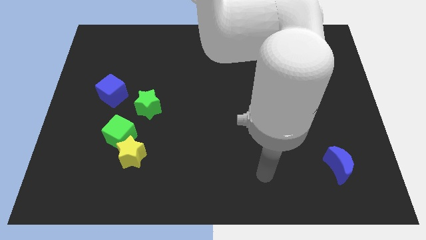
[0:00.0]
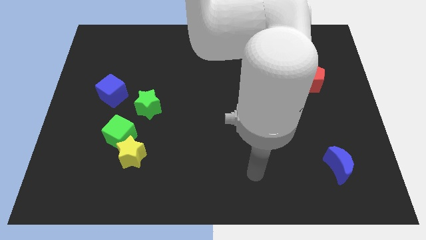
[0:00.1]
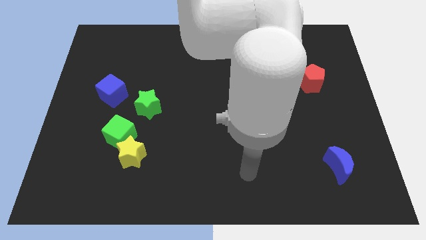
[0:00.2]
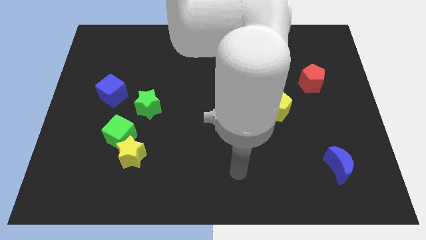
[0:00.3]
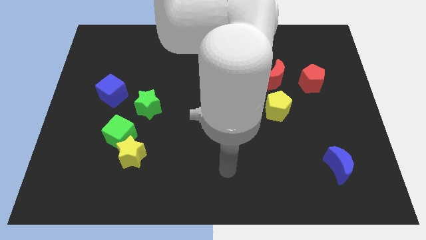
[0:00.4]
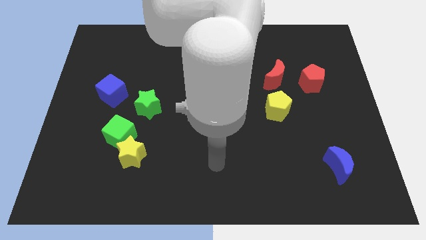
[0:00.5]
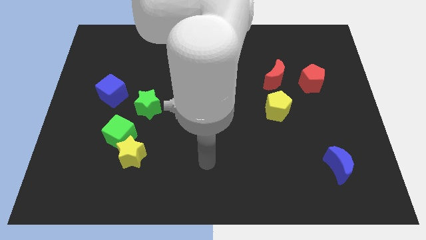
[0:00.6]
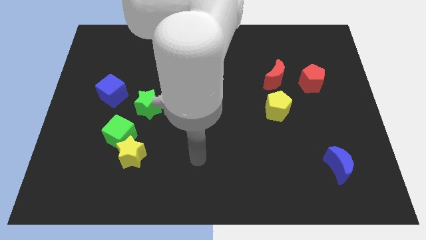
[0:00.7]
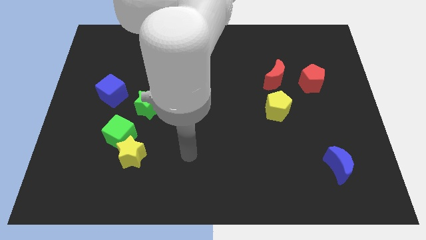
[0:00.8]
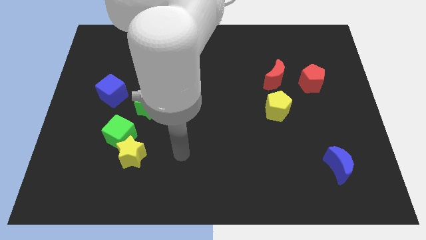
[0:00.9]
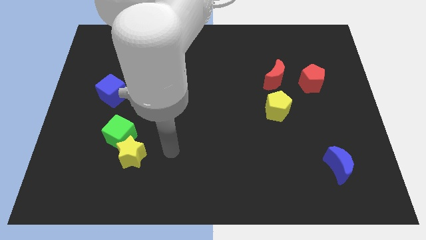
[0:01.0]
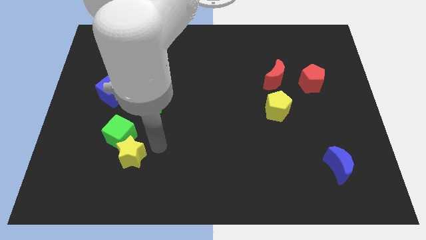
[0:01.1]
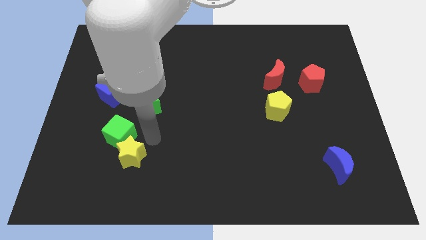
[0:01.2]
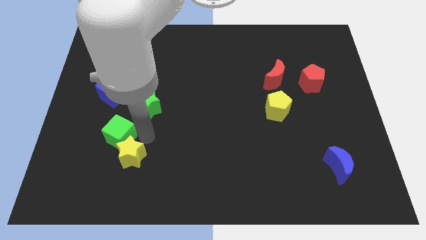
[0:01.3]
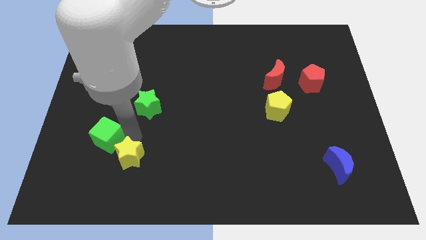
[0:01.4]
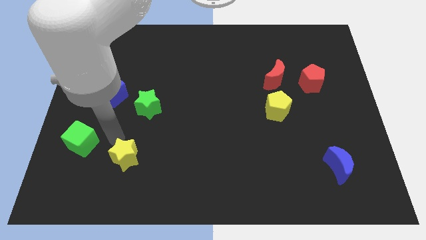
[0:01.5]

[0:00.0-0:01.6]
separate the yellow star from the green cube

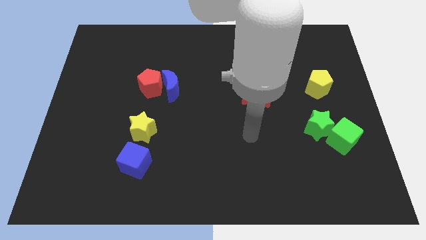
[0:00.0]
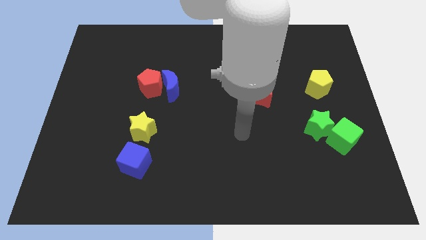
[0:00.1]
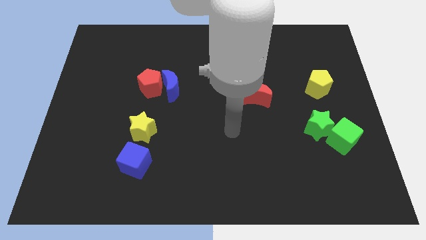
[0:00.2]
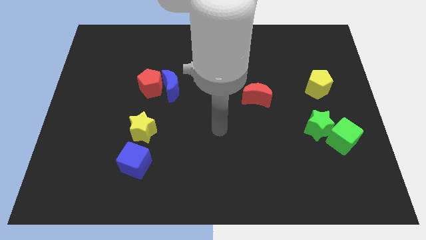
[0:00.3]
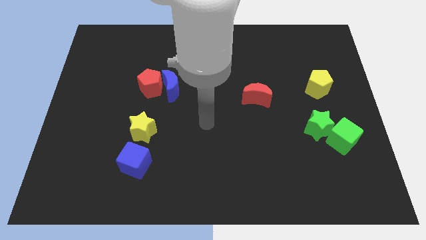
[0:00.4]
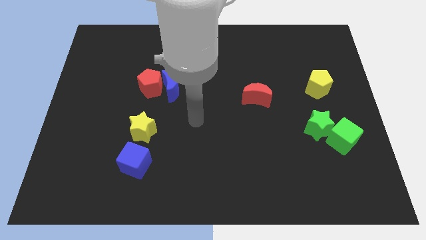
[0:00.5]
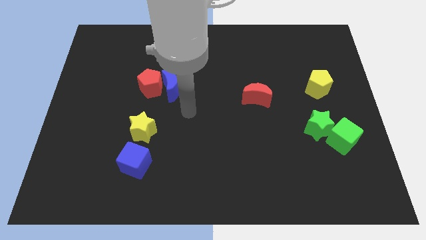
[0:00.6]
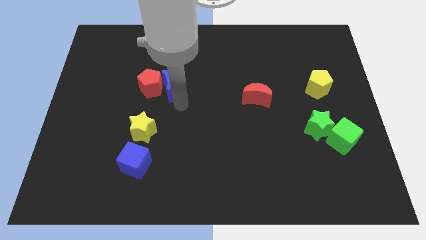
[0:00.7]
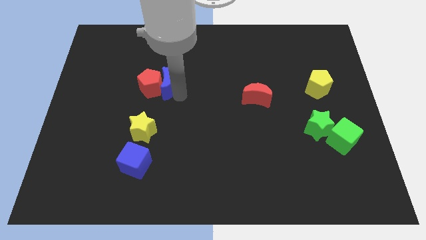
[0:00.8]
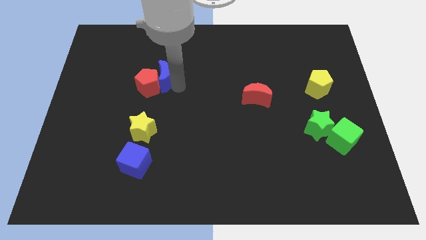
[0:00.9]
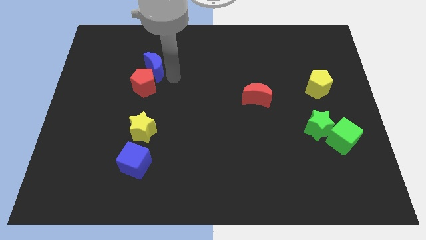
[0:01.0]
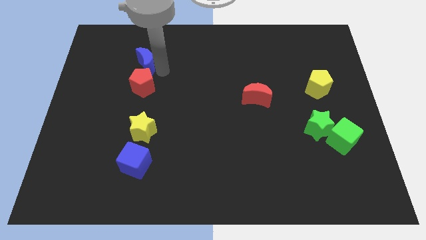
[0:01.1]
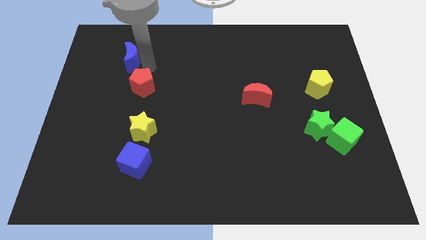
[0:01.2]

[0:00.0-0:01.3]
separate the red pentagon from the blue moon

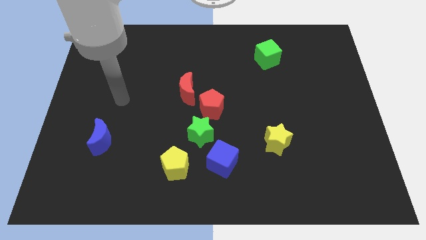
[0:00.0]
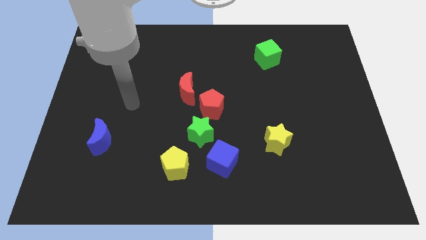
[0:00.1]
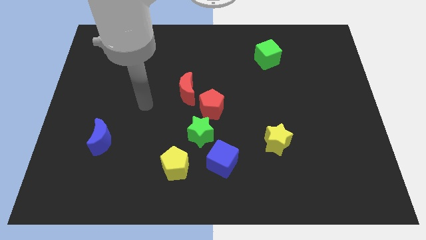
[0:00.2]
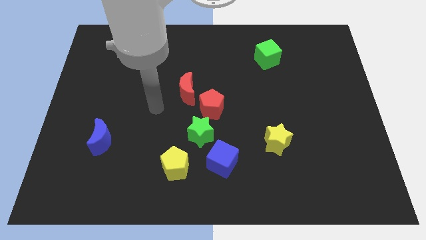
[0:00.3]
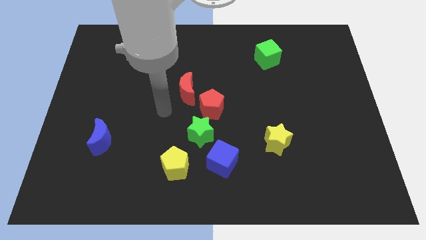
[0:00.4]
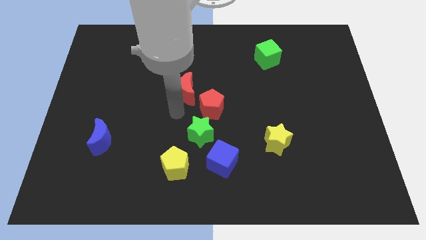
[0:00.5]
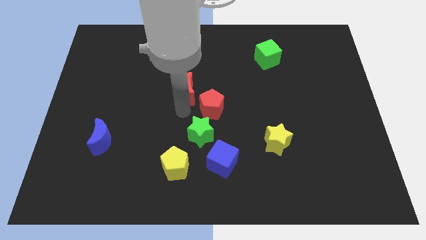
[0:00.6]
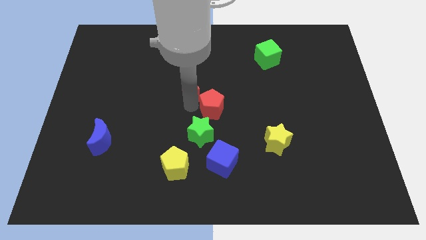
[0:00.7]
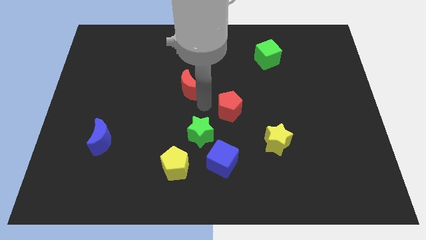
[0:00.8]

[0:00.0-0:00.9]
separate the red moon from the red pentagon

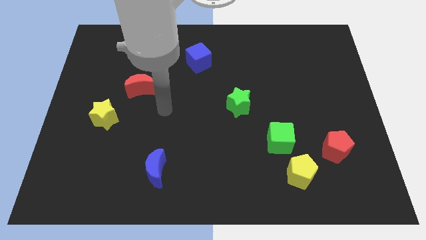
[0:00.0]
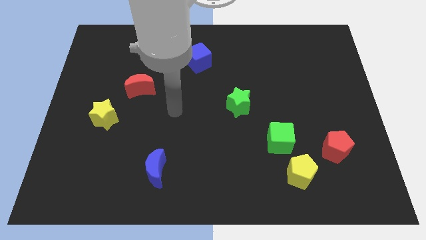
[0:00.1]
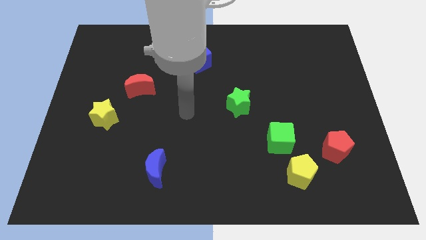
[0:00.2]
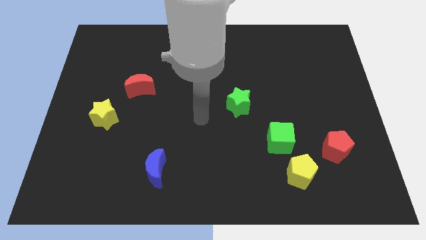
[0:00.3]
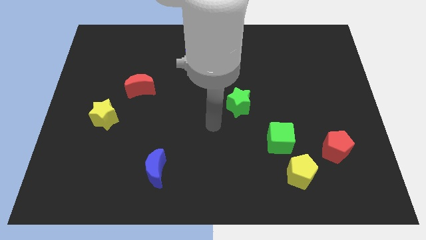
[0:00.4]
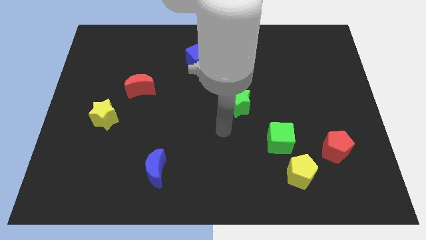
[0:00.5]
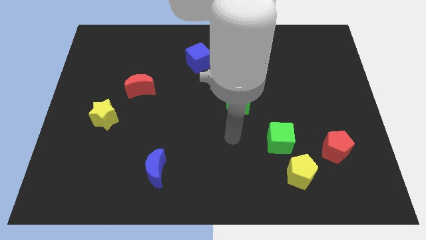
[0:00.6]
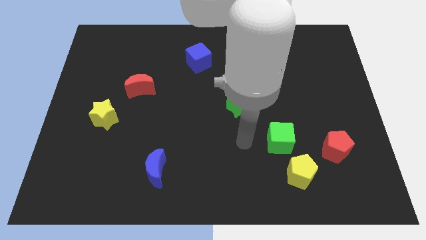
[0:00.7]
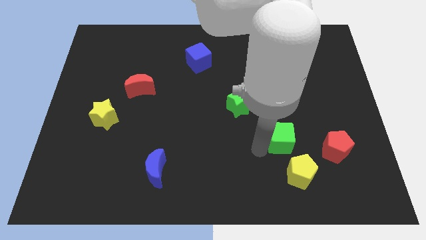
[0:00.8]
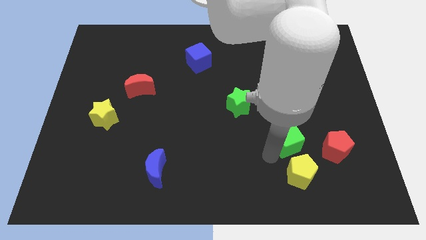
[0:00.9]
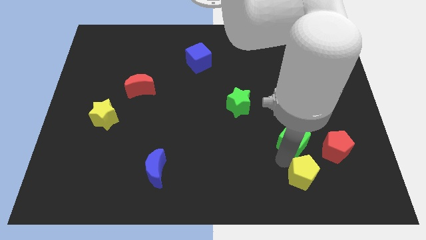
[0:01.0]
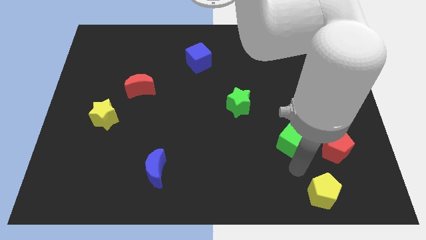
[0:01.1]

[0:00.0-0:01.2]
pull the green cube apart from the yellow pentagon

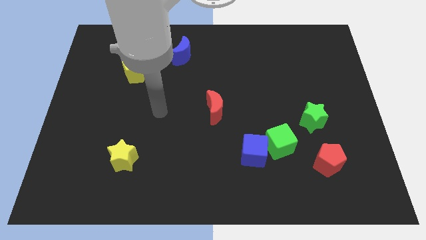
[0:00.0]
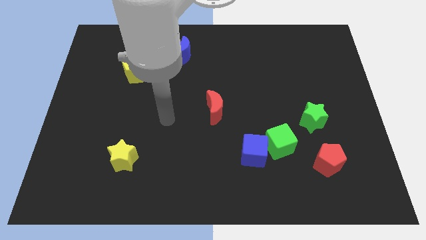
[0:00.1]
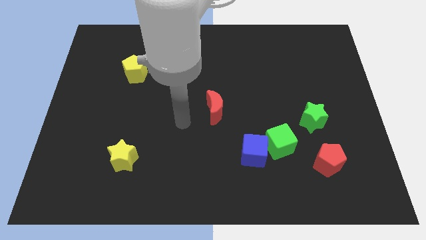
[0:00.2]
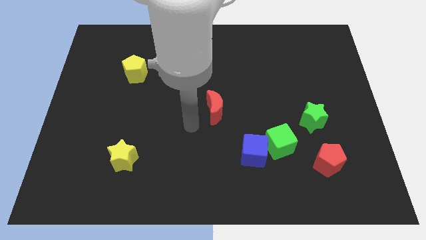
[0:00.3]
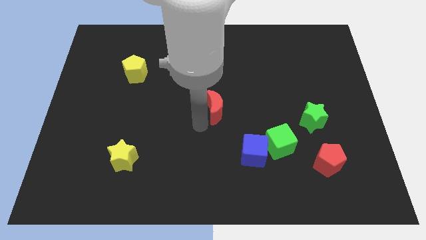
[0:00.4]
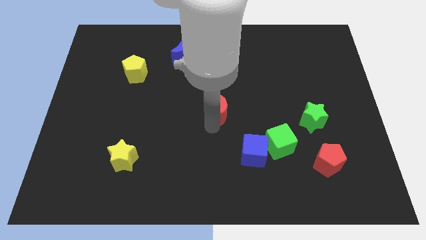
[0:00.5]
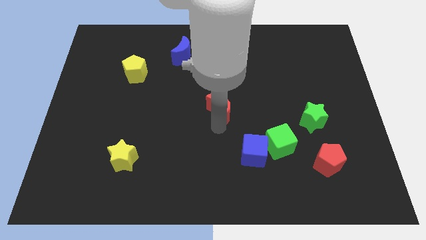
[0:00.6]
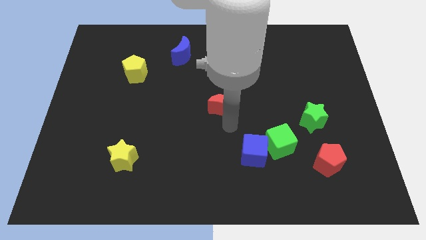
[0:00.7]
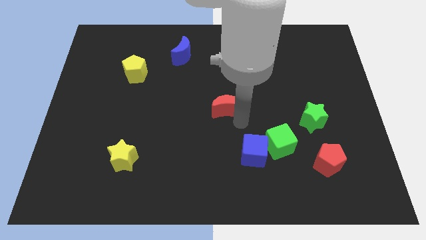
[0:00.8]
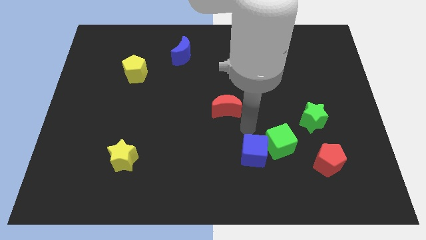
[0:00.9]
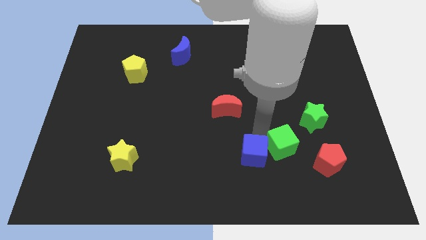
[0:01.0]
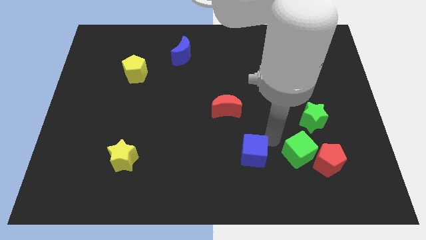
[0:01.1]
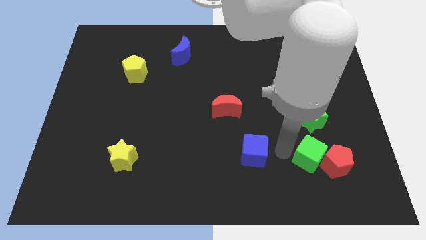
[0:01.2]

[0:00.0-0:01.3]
separate the blue cube from the green cube

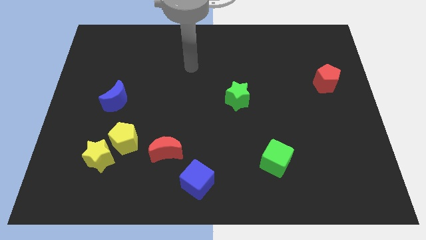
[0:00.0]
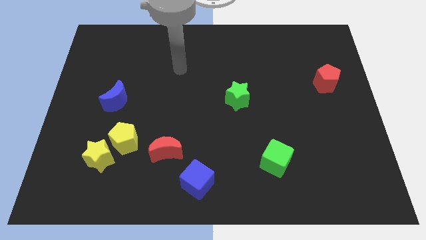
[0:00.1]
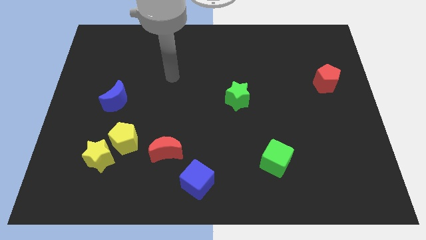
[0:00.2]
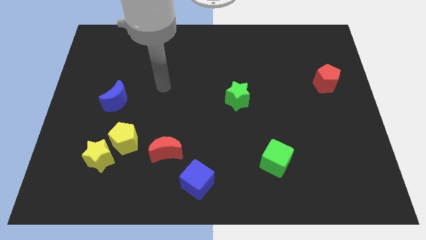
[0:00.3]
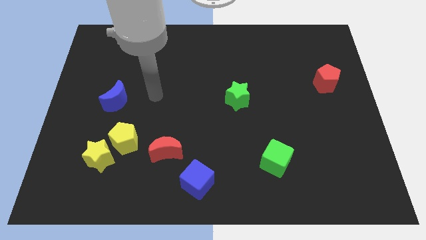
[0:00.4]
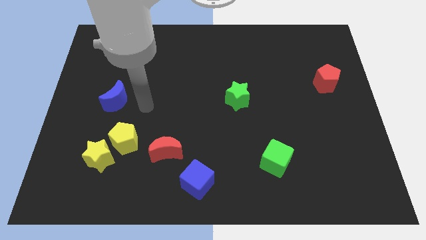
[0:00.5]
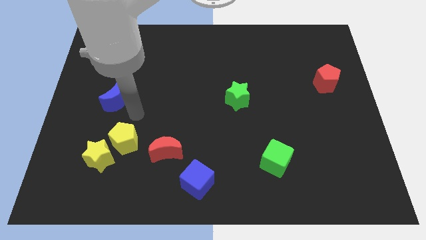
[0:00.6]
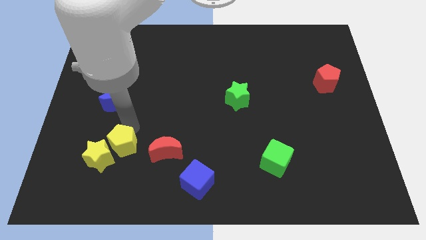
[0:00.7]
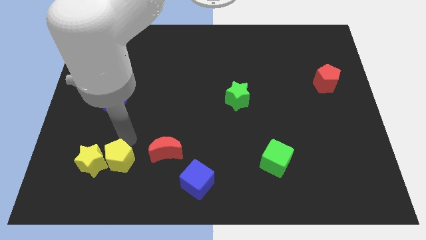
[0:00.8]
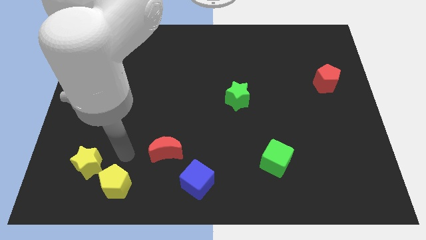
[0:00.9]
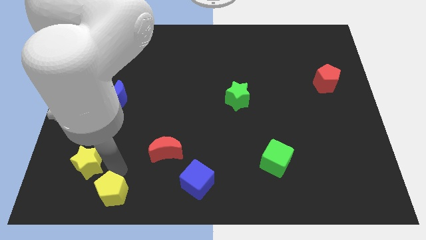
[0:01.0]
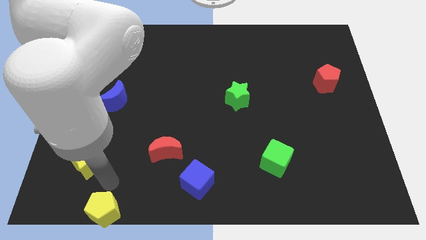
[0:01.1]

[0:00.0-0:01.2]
move the yellow star away from the yellow pentagon

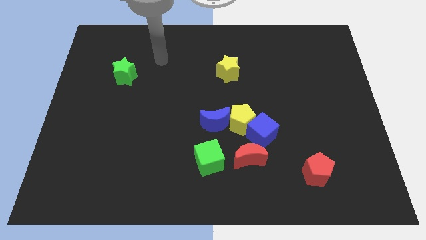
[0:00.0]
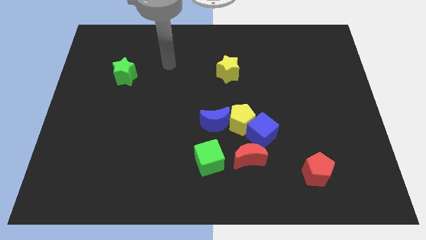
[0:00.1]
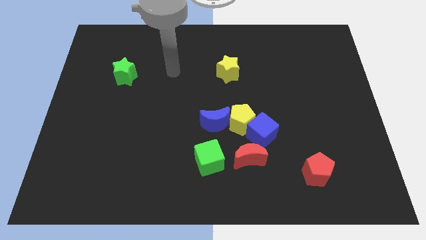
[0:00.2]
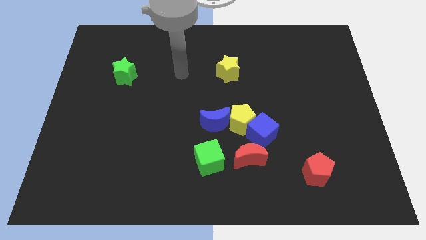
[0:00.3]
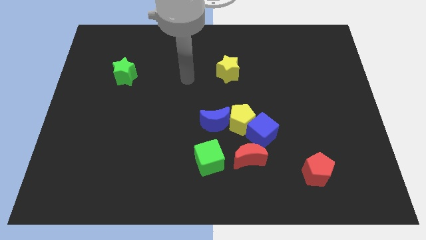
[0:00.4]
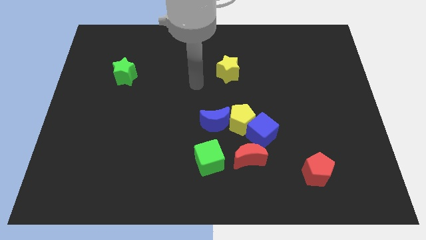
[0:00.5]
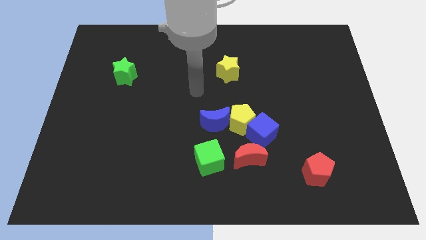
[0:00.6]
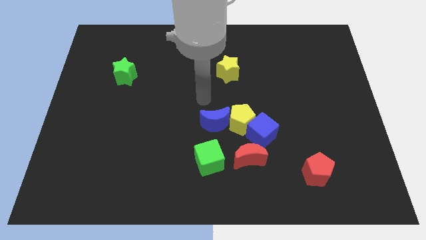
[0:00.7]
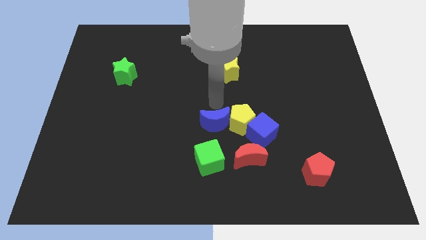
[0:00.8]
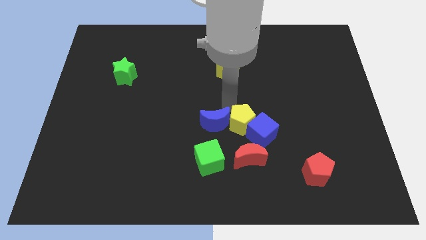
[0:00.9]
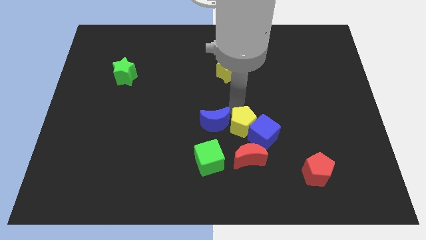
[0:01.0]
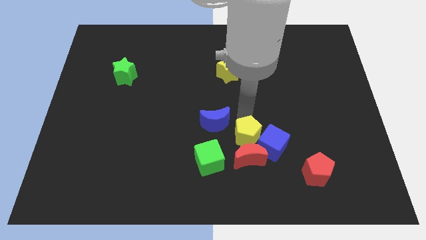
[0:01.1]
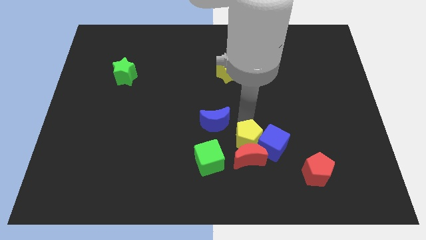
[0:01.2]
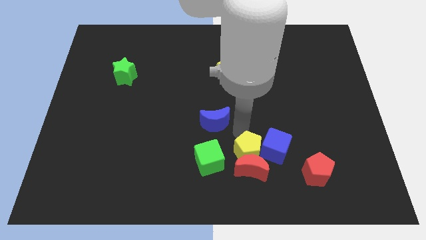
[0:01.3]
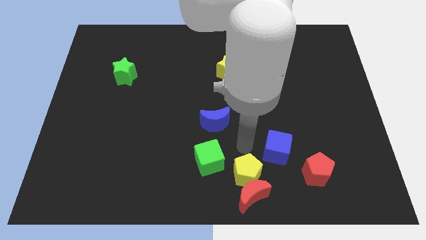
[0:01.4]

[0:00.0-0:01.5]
move the blue cube away from the yellow pentagon and red moon

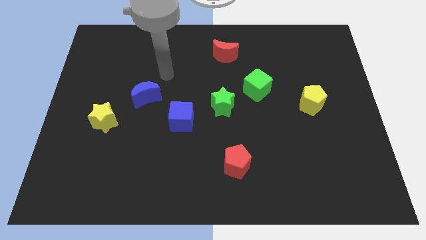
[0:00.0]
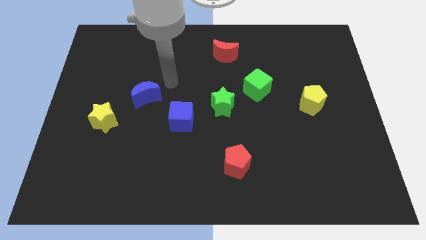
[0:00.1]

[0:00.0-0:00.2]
move the green cube away from the green star
